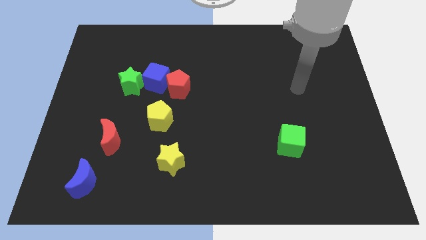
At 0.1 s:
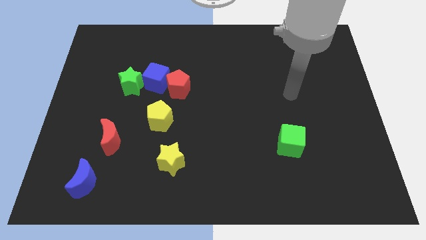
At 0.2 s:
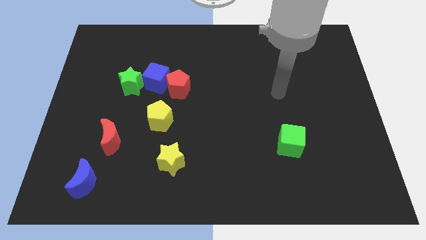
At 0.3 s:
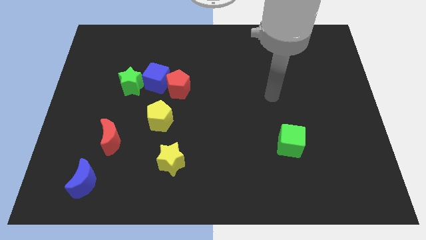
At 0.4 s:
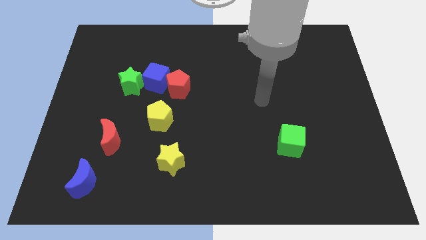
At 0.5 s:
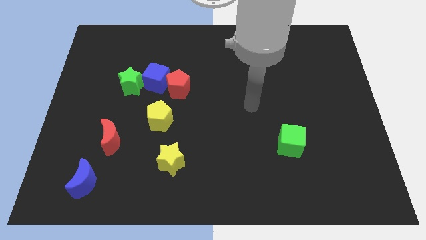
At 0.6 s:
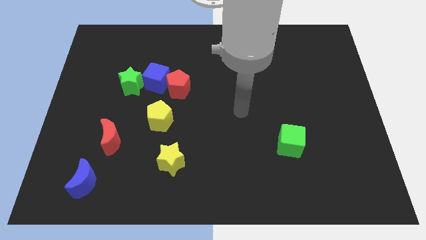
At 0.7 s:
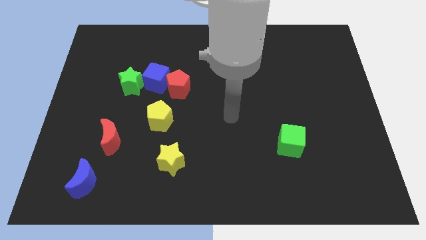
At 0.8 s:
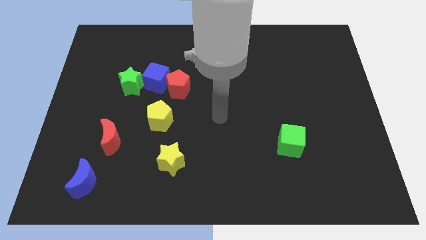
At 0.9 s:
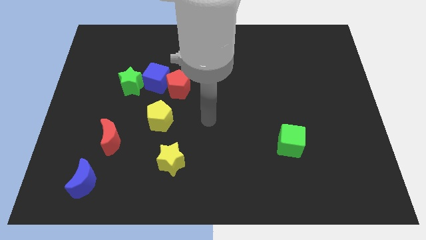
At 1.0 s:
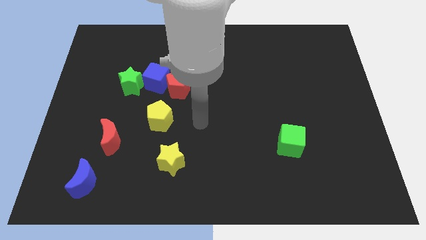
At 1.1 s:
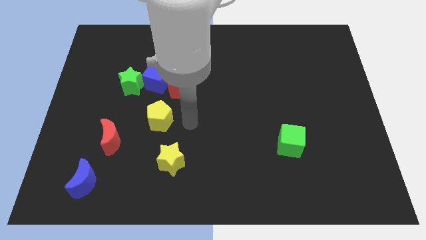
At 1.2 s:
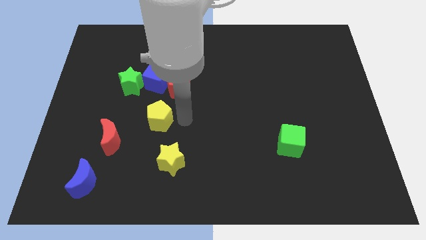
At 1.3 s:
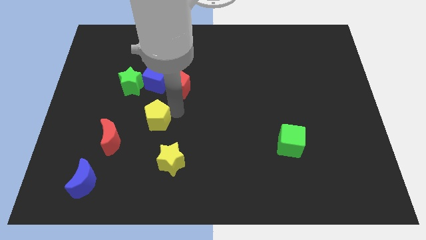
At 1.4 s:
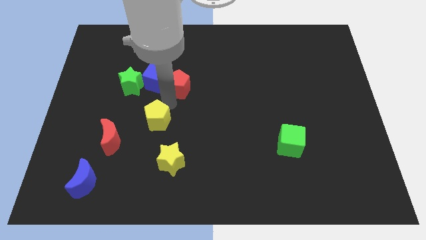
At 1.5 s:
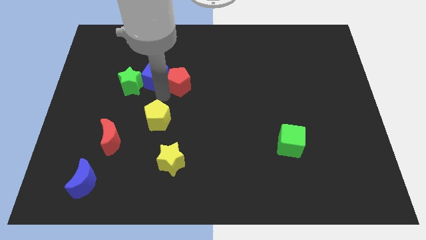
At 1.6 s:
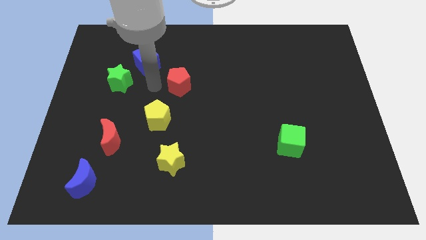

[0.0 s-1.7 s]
move the red pentagon away from the blue cube

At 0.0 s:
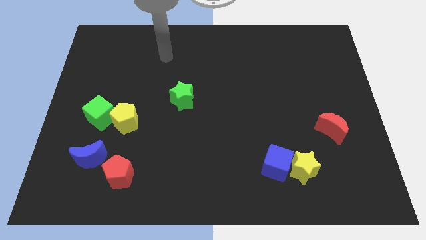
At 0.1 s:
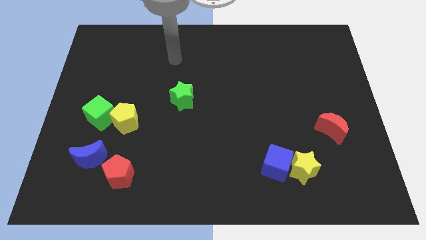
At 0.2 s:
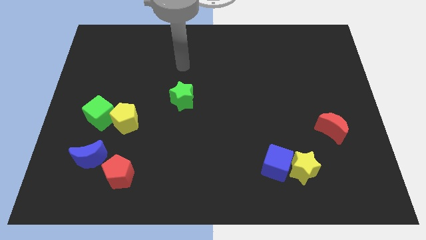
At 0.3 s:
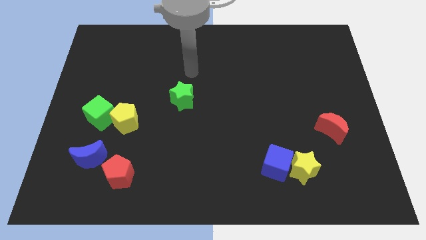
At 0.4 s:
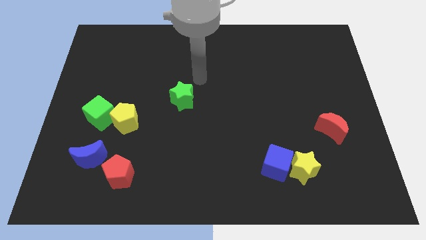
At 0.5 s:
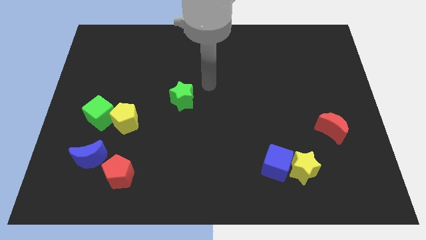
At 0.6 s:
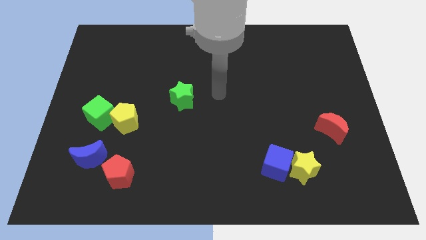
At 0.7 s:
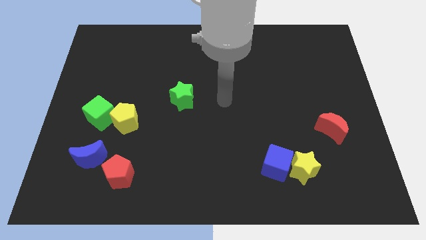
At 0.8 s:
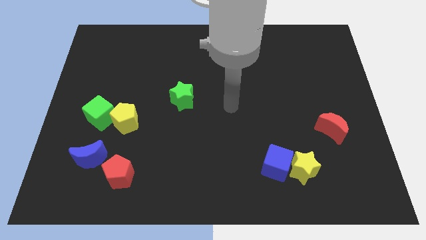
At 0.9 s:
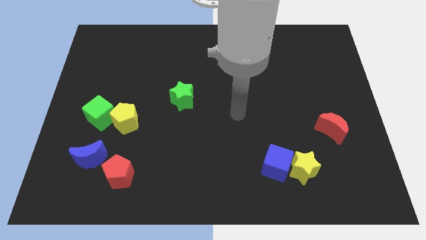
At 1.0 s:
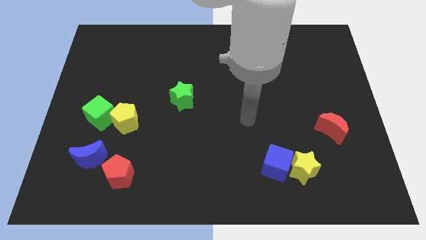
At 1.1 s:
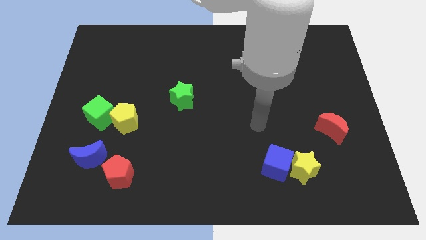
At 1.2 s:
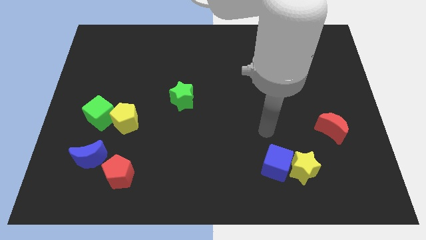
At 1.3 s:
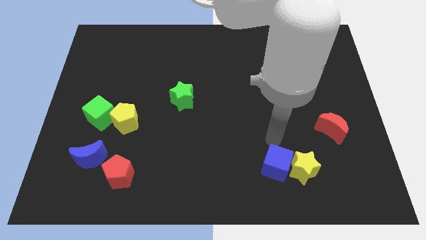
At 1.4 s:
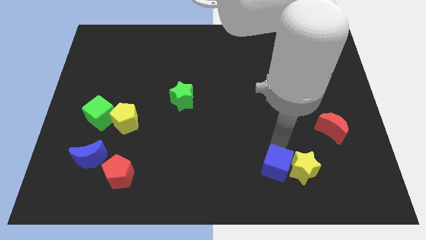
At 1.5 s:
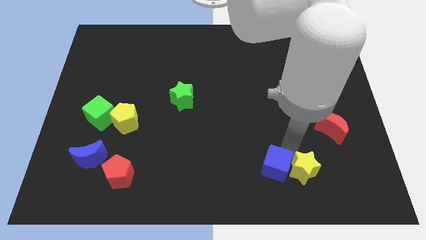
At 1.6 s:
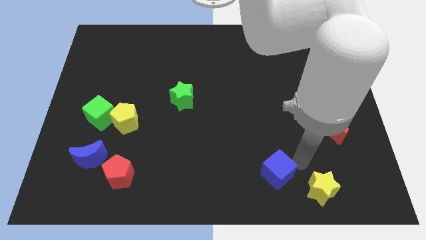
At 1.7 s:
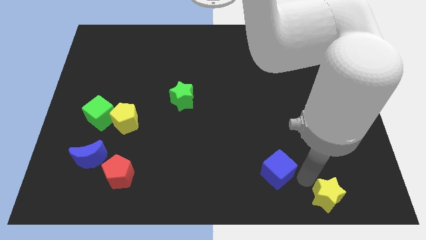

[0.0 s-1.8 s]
move the blue cube away from the yellow star

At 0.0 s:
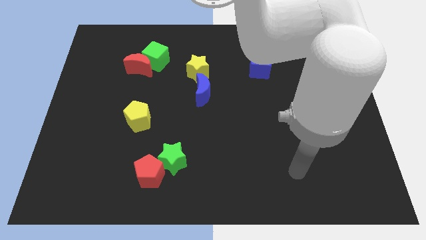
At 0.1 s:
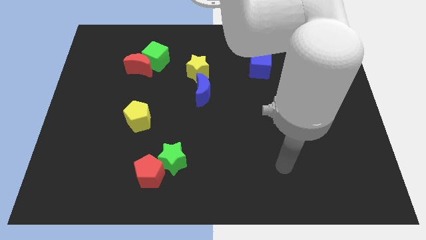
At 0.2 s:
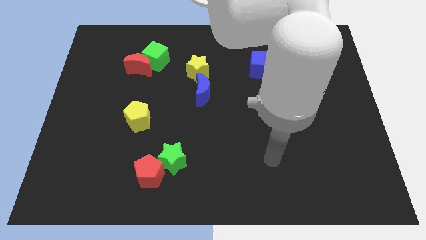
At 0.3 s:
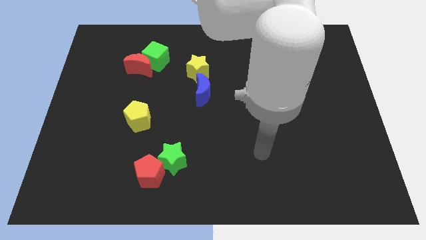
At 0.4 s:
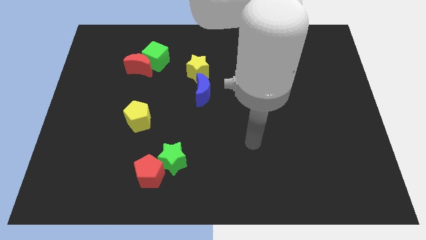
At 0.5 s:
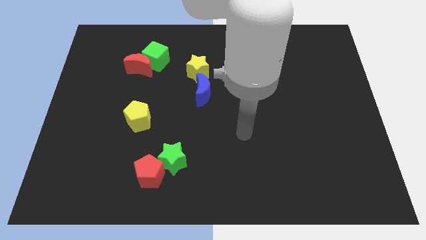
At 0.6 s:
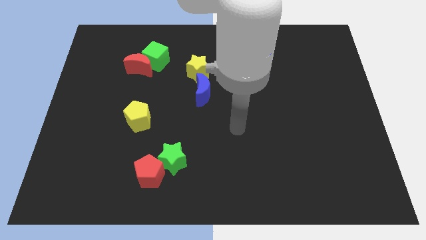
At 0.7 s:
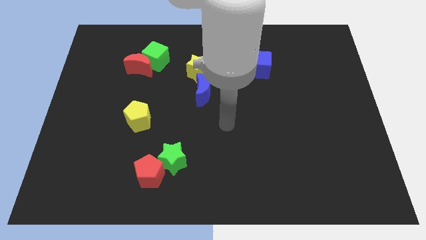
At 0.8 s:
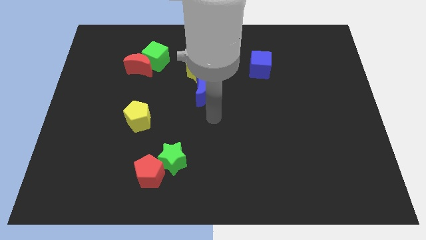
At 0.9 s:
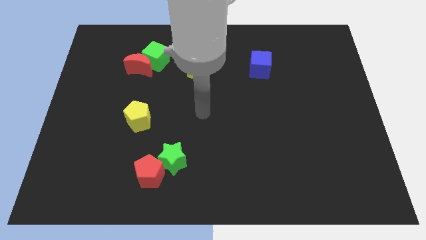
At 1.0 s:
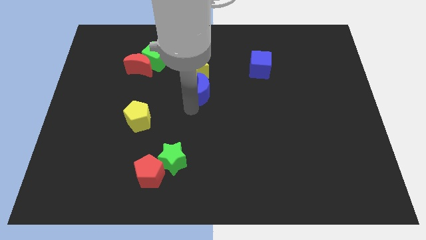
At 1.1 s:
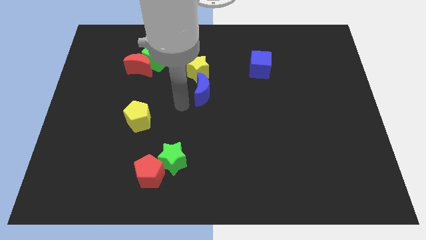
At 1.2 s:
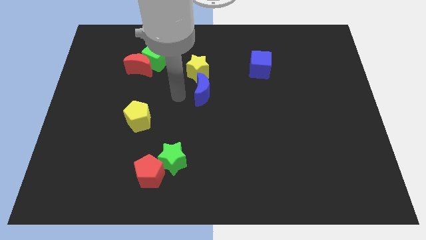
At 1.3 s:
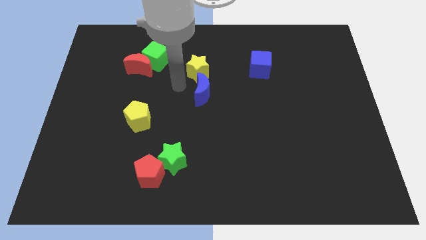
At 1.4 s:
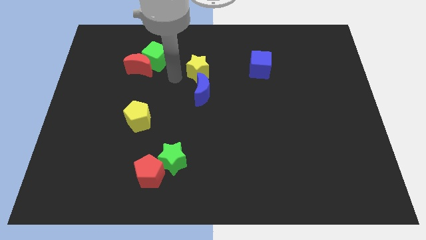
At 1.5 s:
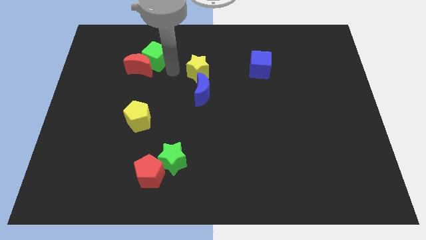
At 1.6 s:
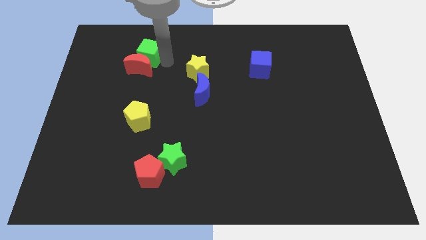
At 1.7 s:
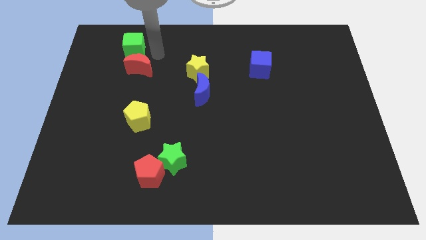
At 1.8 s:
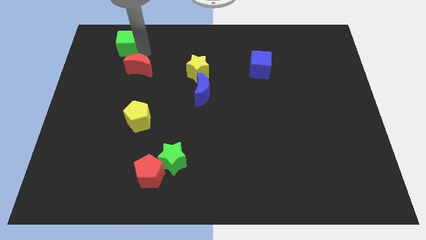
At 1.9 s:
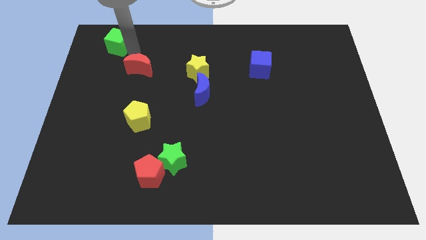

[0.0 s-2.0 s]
pull the red moon apart from the green cube

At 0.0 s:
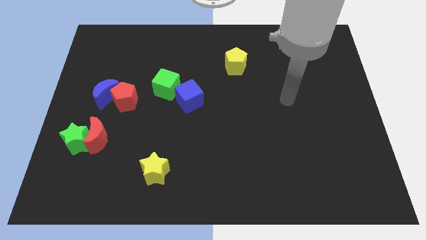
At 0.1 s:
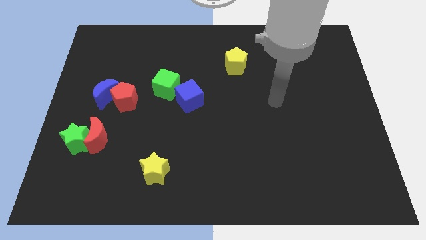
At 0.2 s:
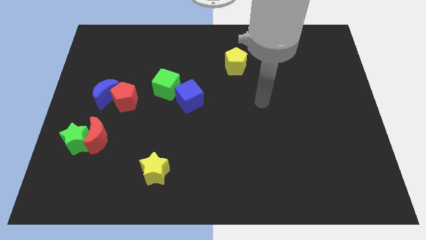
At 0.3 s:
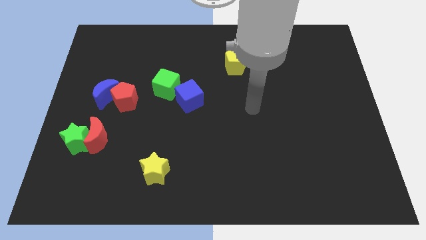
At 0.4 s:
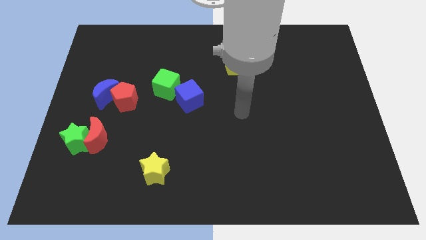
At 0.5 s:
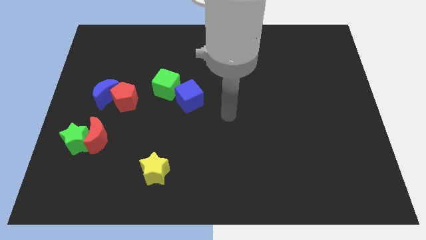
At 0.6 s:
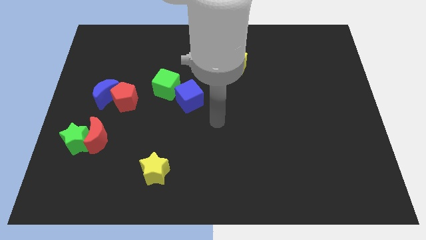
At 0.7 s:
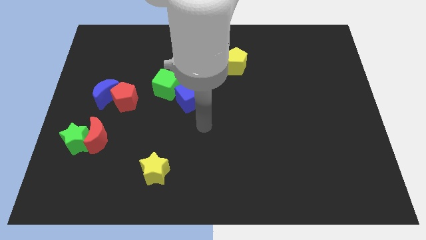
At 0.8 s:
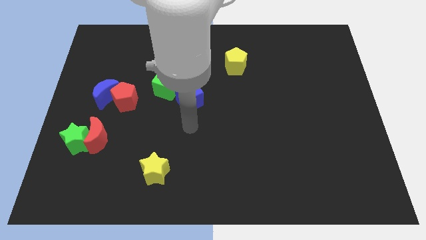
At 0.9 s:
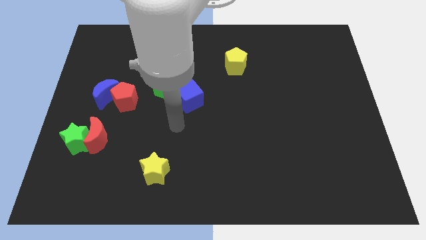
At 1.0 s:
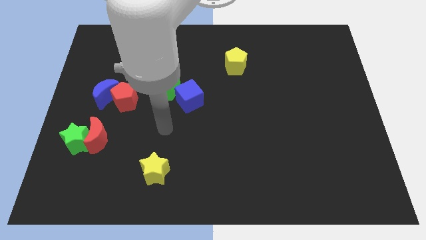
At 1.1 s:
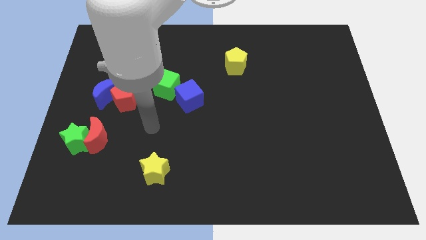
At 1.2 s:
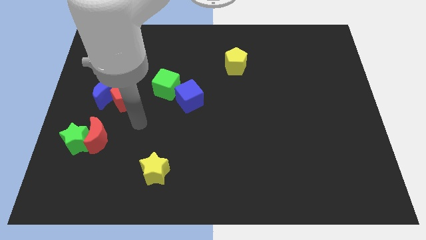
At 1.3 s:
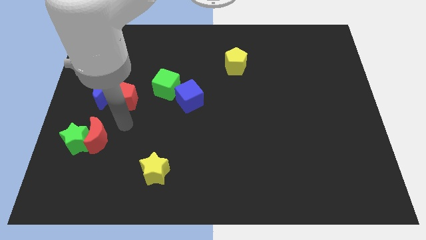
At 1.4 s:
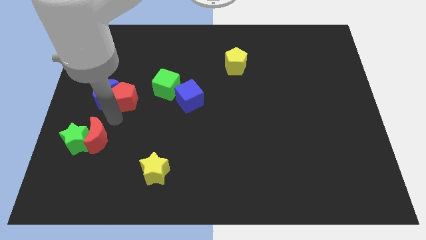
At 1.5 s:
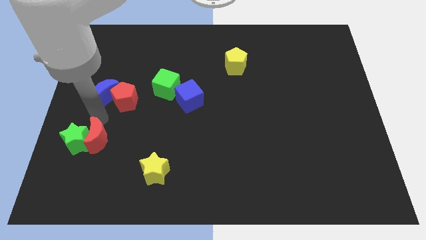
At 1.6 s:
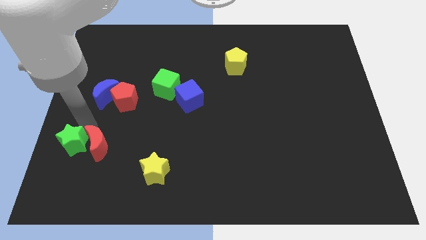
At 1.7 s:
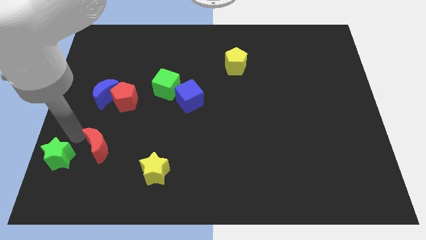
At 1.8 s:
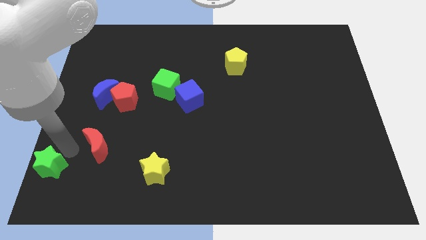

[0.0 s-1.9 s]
separate the red moon from the green star

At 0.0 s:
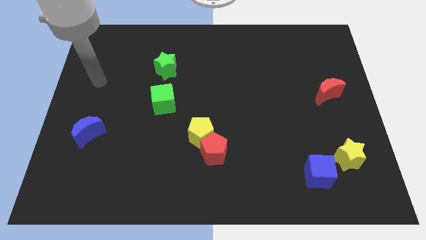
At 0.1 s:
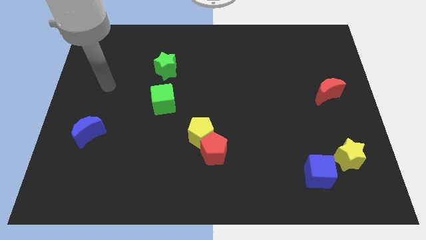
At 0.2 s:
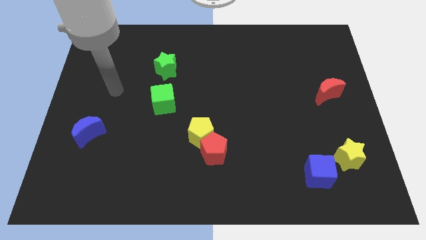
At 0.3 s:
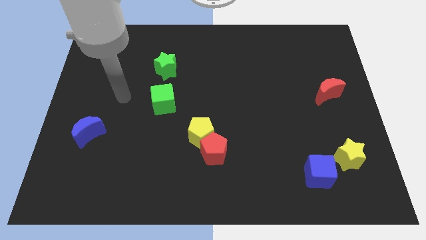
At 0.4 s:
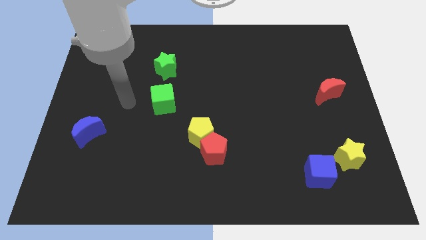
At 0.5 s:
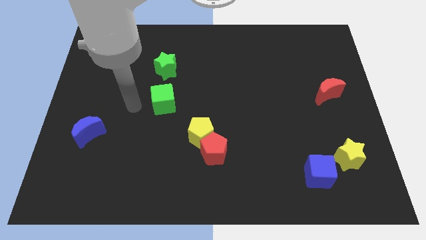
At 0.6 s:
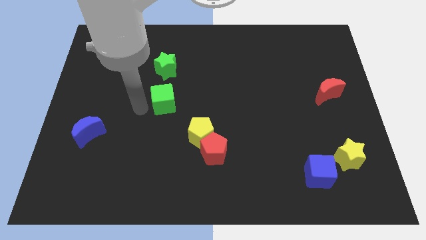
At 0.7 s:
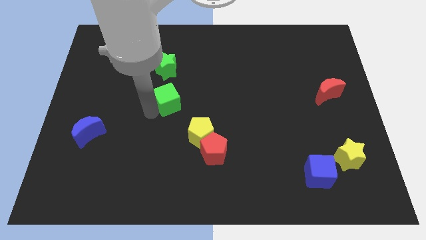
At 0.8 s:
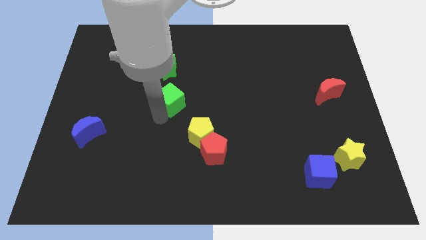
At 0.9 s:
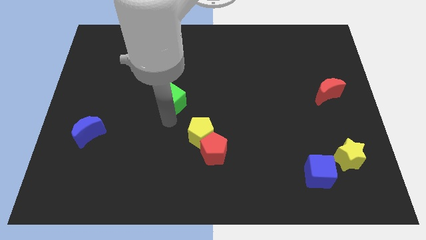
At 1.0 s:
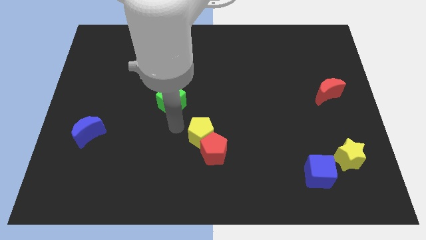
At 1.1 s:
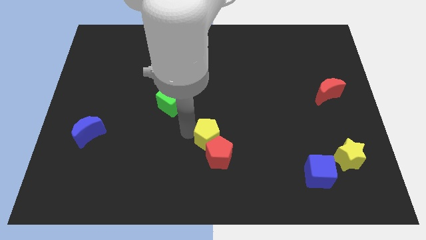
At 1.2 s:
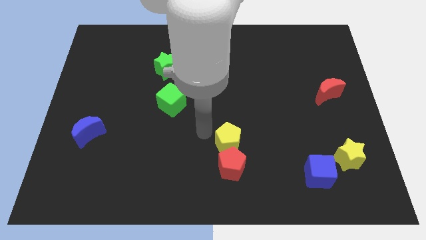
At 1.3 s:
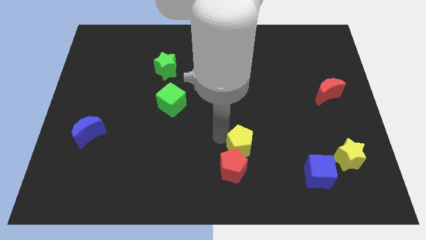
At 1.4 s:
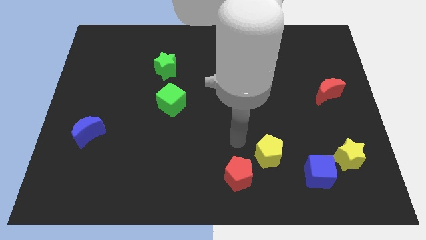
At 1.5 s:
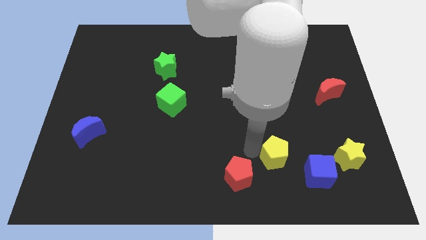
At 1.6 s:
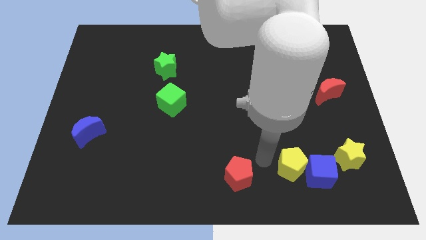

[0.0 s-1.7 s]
pull the red pentagon apart from the yellow pentagon

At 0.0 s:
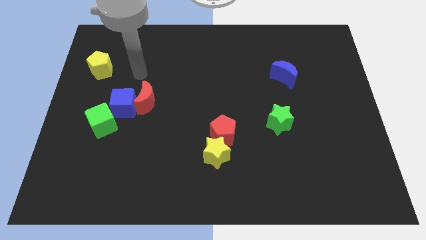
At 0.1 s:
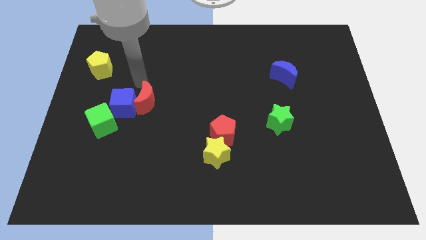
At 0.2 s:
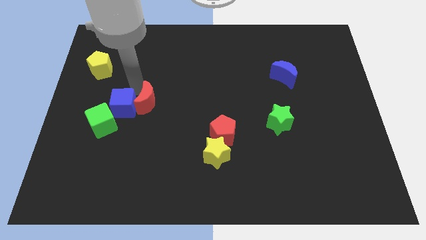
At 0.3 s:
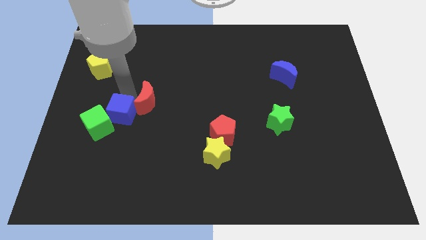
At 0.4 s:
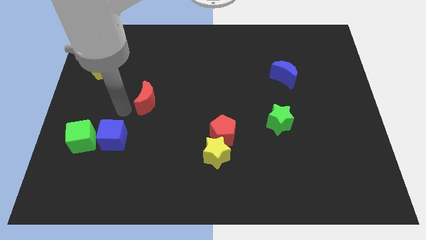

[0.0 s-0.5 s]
pull the red moon apart from the blue cube
